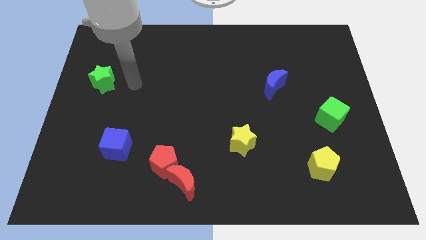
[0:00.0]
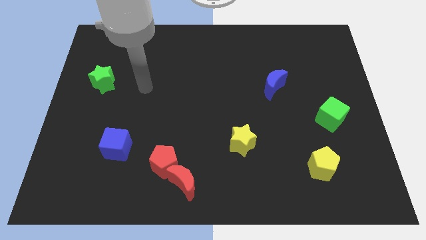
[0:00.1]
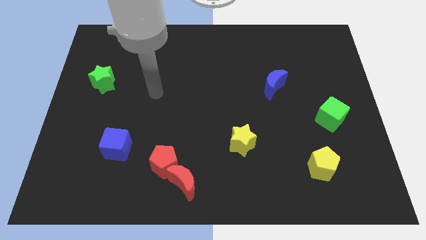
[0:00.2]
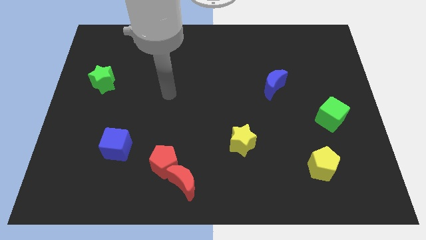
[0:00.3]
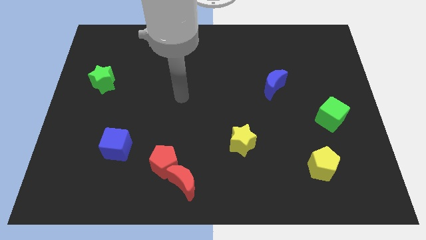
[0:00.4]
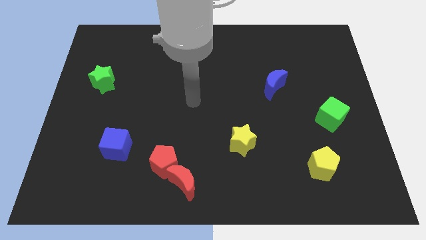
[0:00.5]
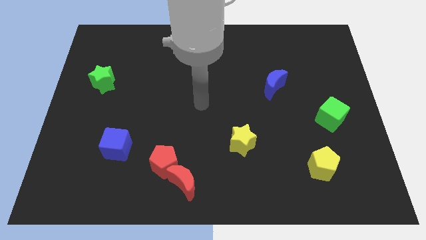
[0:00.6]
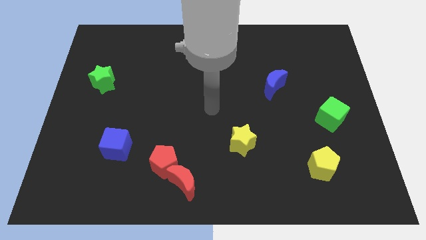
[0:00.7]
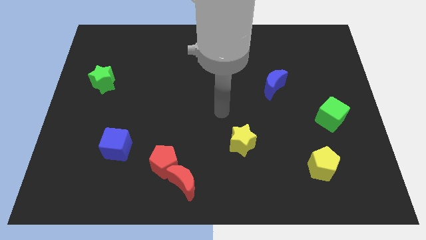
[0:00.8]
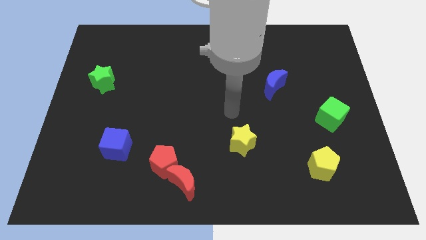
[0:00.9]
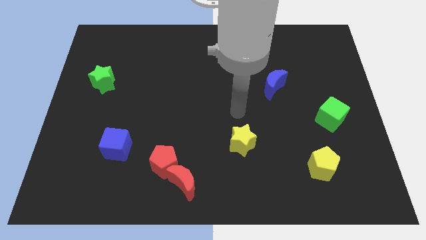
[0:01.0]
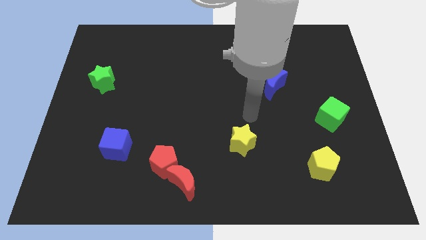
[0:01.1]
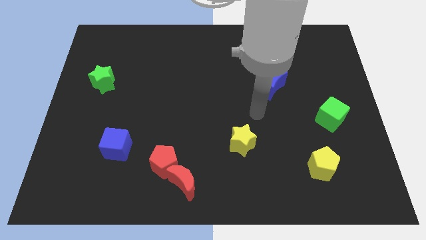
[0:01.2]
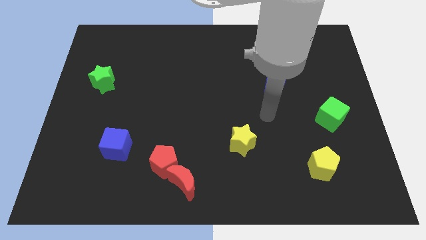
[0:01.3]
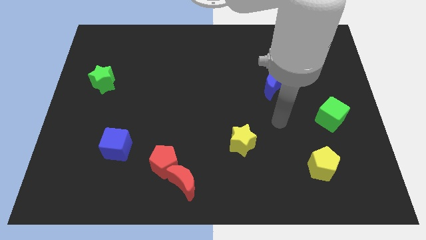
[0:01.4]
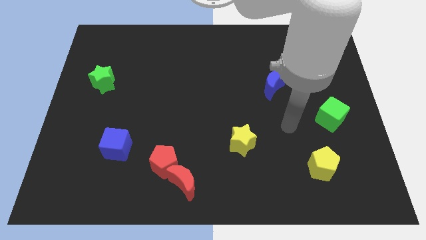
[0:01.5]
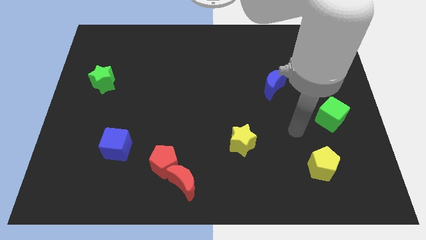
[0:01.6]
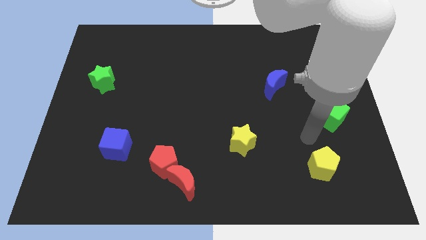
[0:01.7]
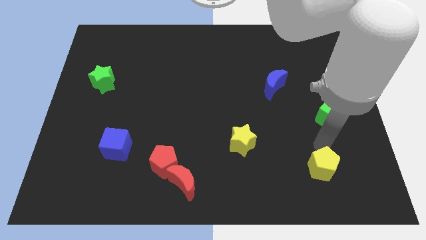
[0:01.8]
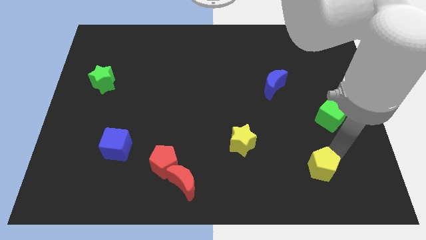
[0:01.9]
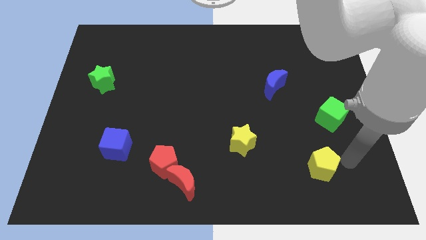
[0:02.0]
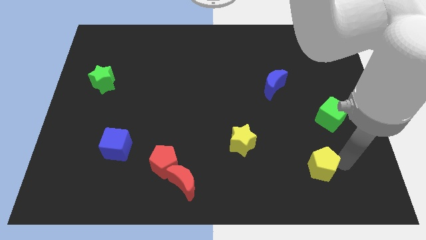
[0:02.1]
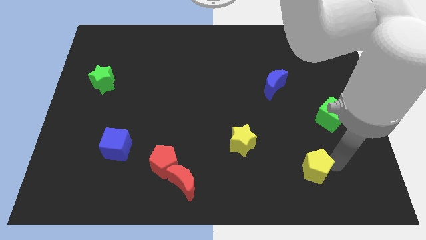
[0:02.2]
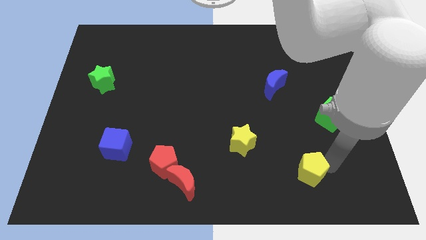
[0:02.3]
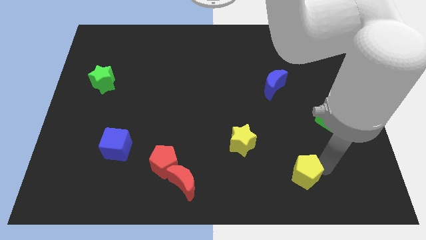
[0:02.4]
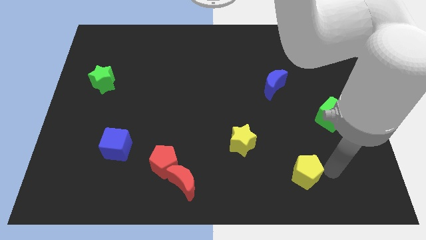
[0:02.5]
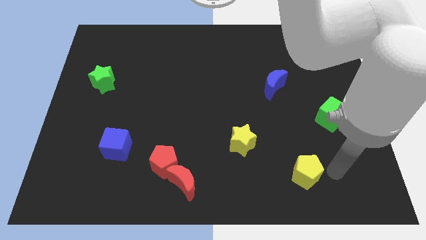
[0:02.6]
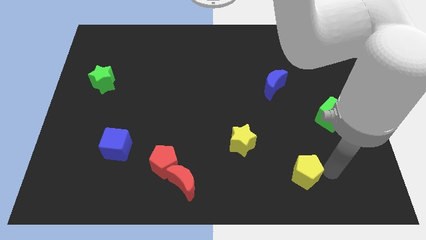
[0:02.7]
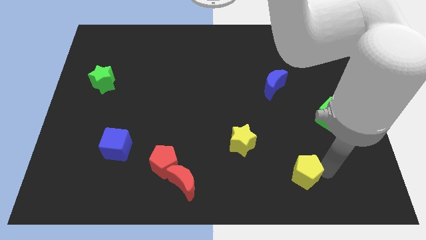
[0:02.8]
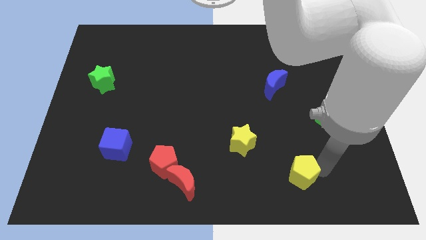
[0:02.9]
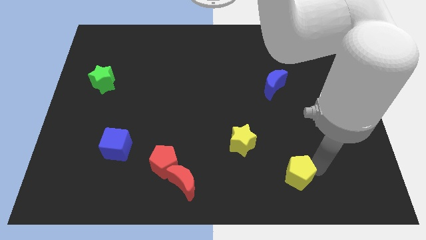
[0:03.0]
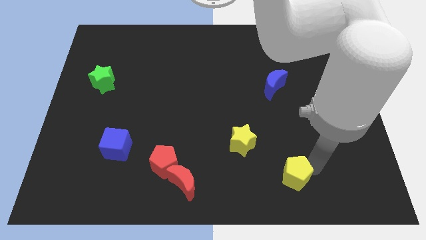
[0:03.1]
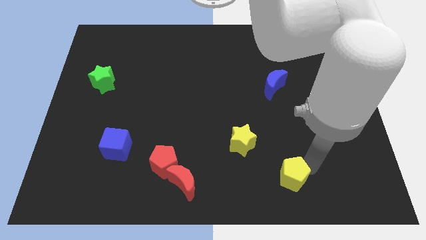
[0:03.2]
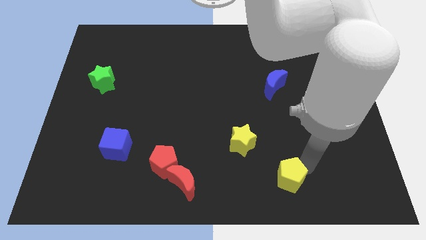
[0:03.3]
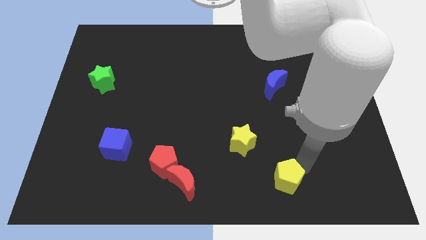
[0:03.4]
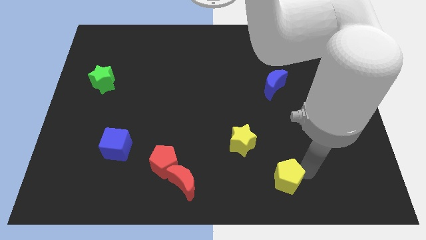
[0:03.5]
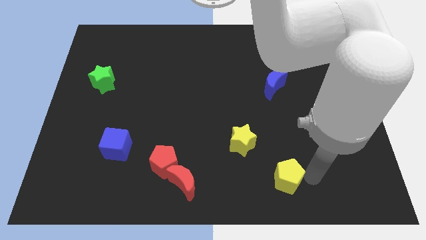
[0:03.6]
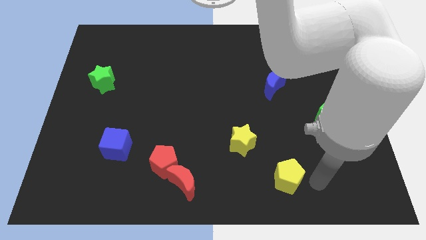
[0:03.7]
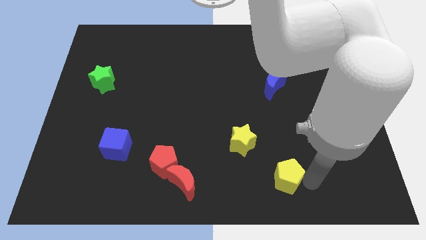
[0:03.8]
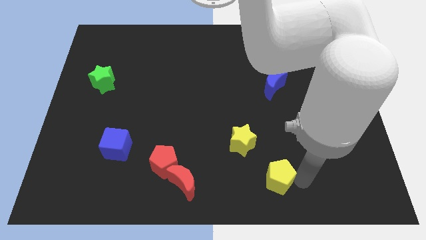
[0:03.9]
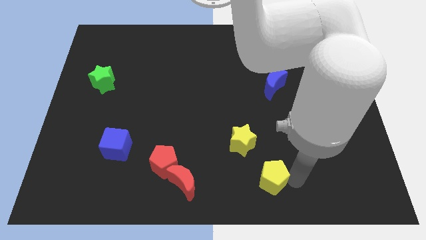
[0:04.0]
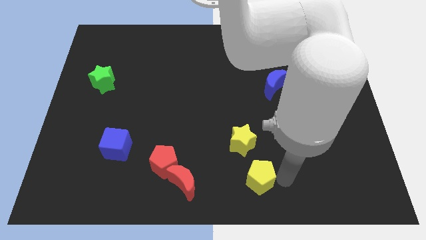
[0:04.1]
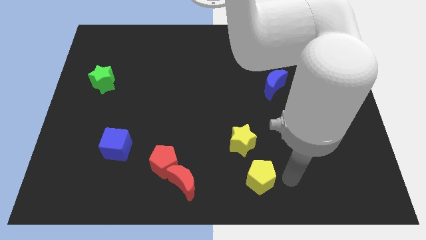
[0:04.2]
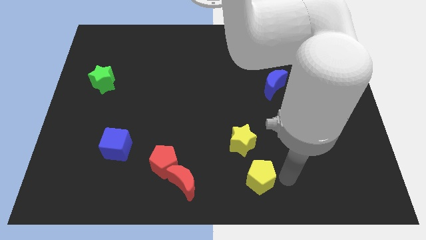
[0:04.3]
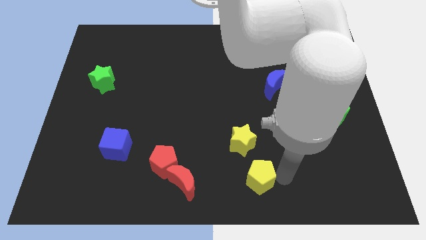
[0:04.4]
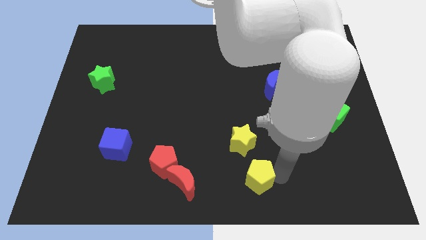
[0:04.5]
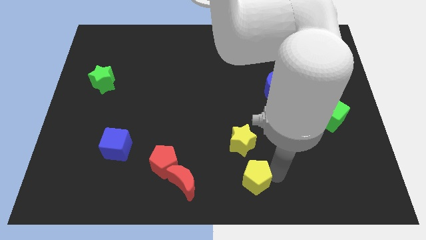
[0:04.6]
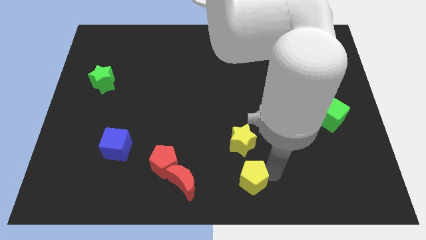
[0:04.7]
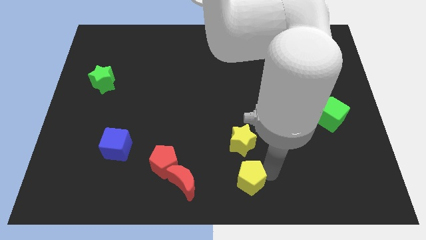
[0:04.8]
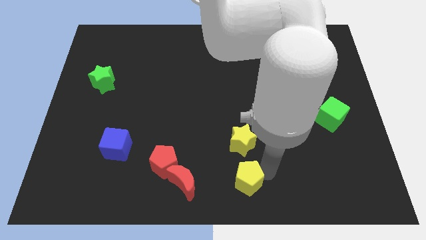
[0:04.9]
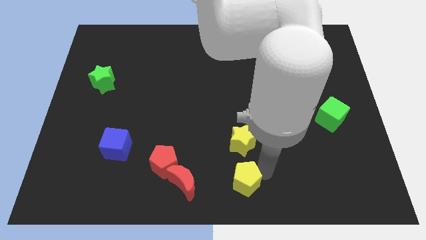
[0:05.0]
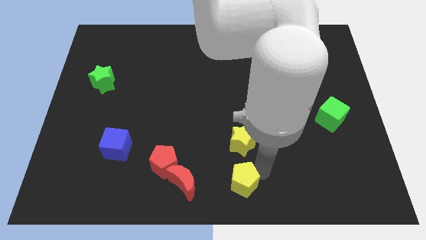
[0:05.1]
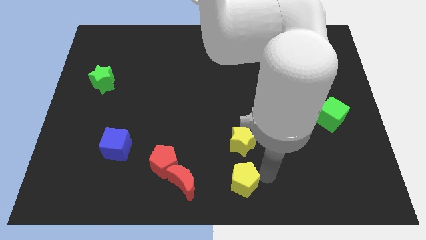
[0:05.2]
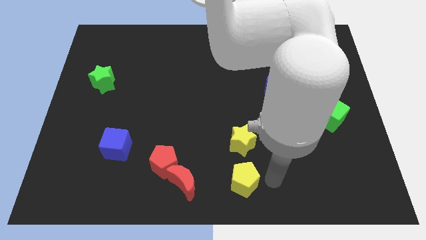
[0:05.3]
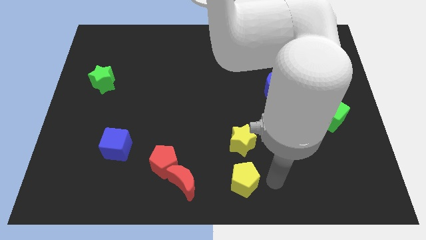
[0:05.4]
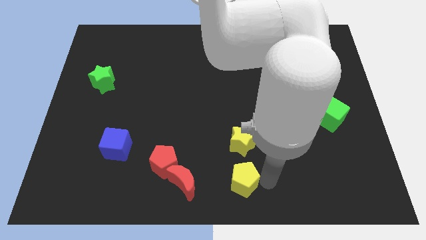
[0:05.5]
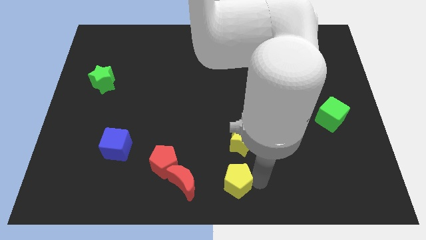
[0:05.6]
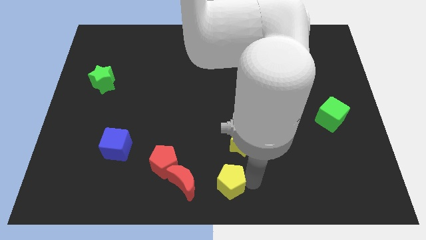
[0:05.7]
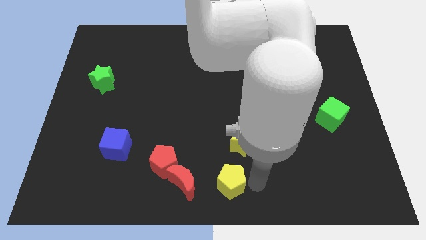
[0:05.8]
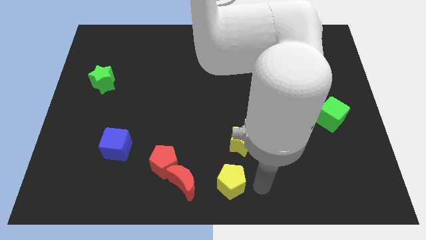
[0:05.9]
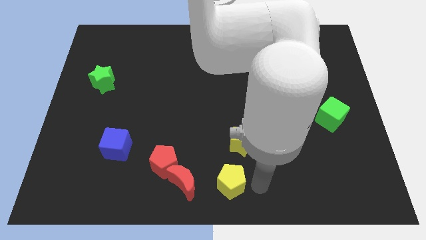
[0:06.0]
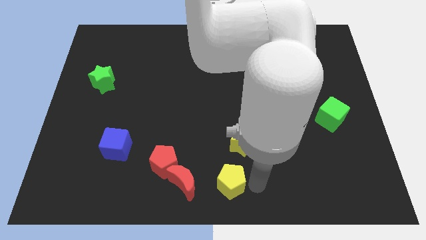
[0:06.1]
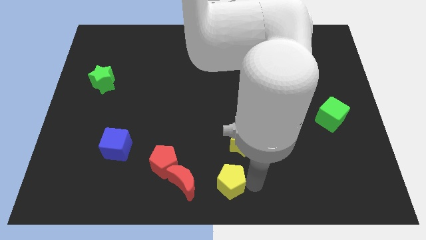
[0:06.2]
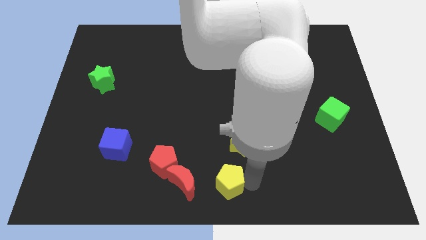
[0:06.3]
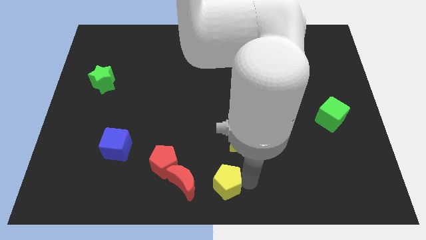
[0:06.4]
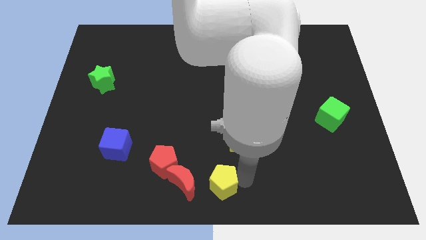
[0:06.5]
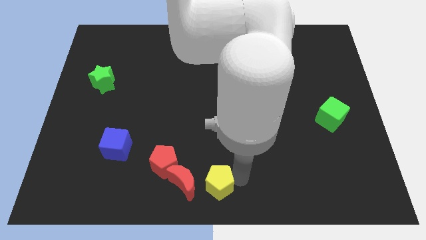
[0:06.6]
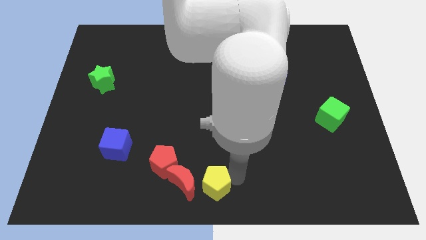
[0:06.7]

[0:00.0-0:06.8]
push the yellow pentagon close to the red moon

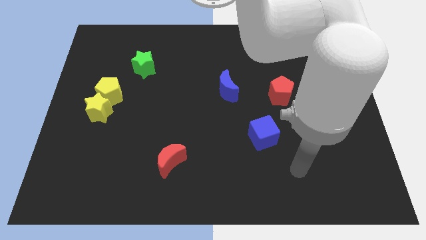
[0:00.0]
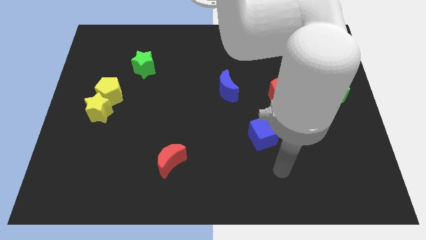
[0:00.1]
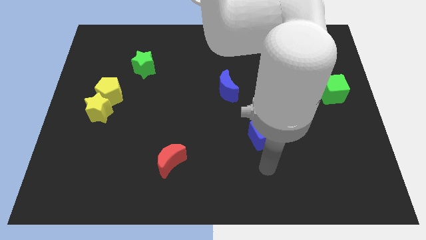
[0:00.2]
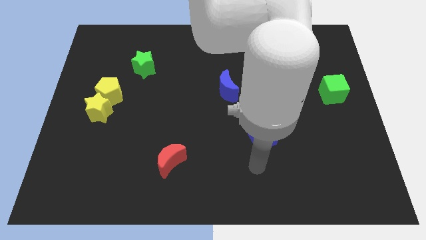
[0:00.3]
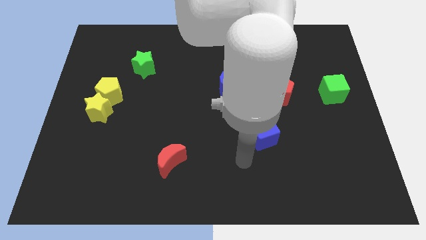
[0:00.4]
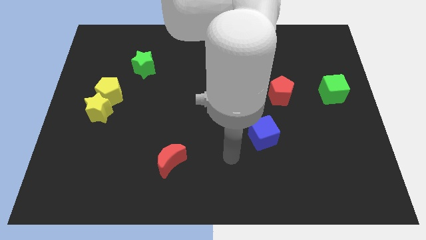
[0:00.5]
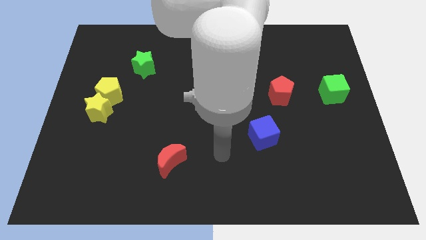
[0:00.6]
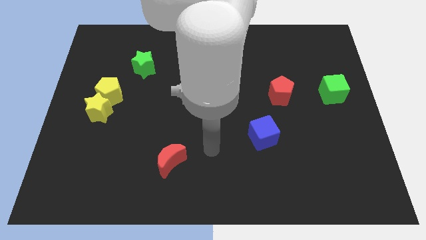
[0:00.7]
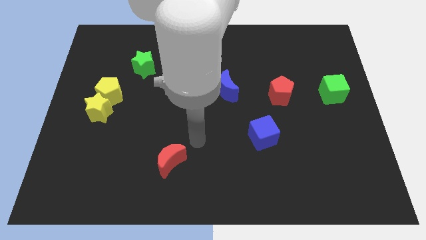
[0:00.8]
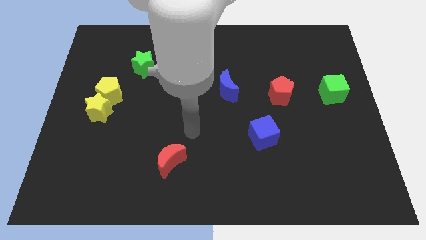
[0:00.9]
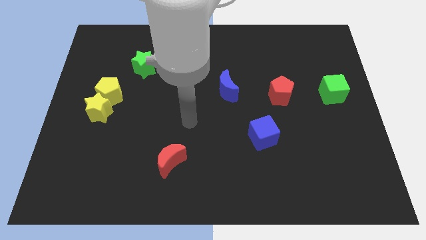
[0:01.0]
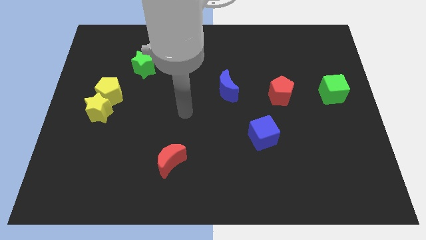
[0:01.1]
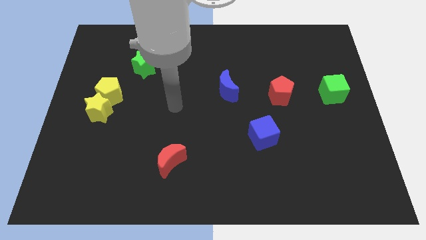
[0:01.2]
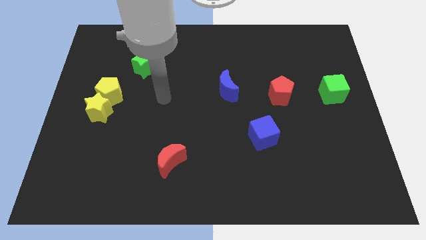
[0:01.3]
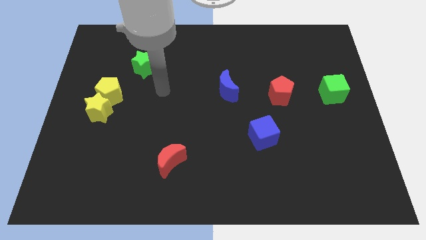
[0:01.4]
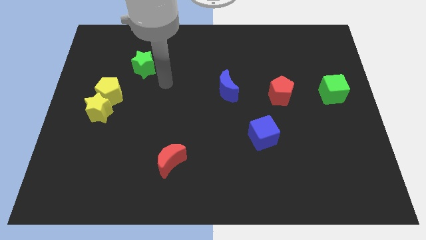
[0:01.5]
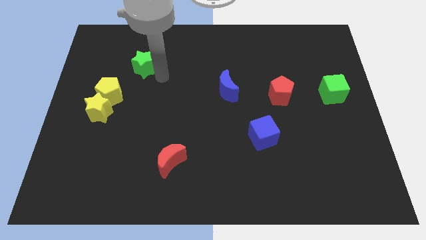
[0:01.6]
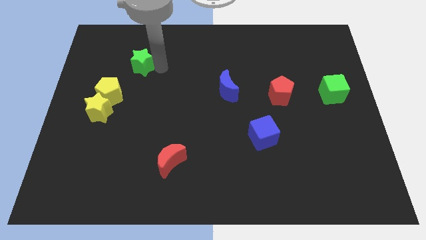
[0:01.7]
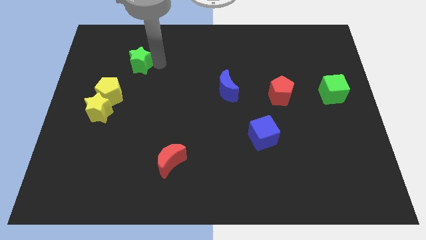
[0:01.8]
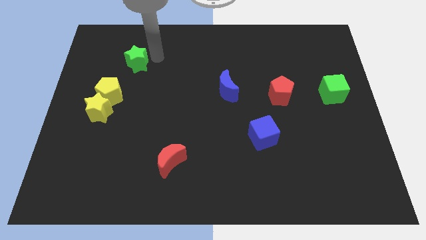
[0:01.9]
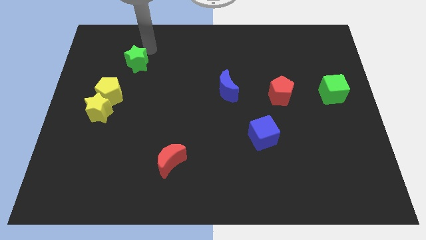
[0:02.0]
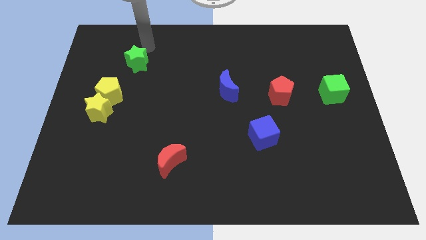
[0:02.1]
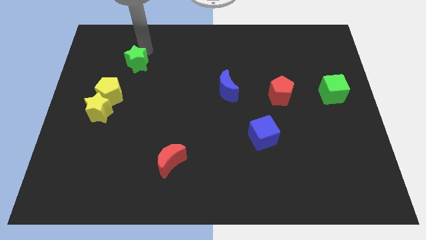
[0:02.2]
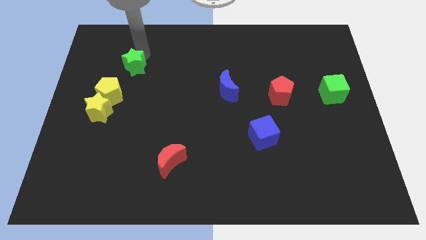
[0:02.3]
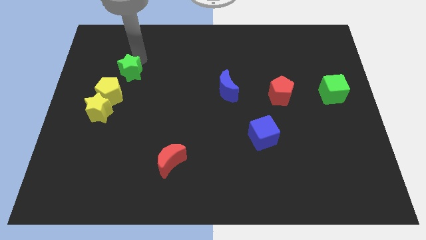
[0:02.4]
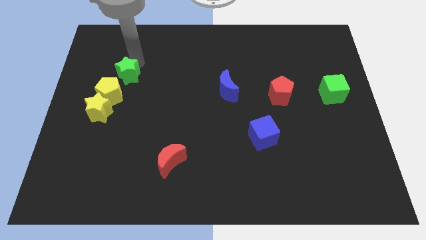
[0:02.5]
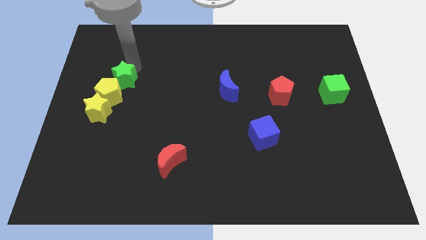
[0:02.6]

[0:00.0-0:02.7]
push the green star next to the yellow pentagon
